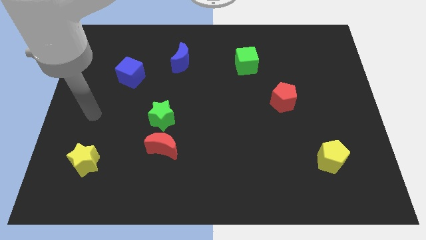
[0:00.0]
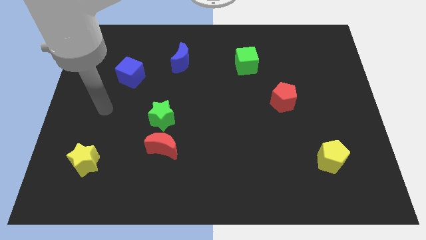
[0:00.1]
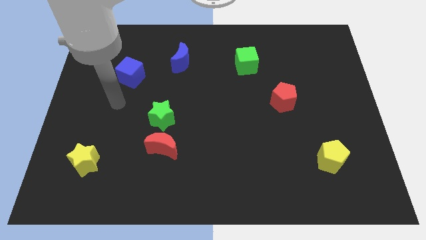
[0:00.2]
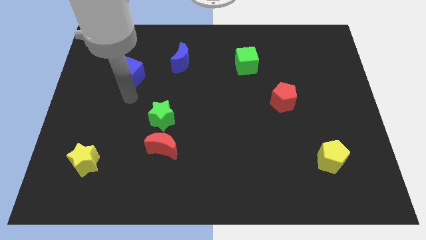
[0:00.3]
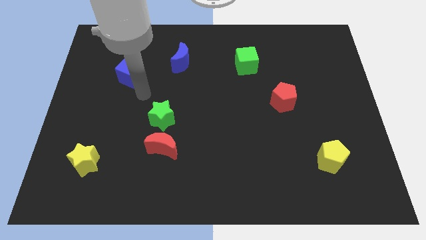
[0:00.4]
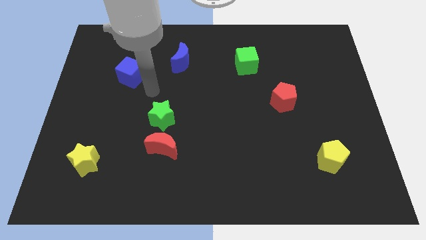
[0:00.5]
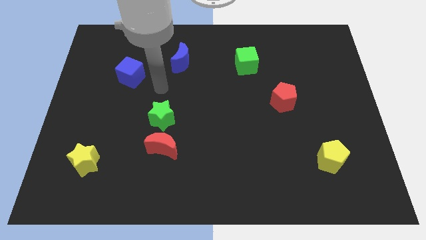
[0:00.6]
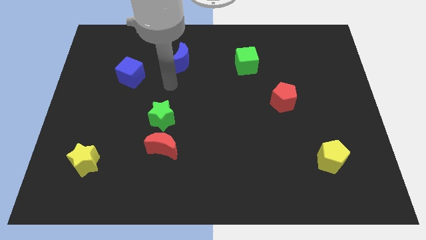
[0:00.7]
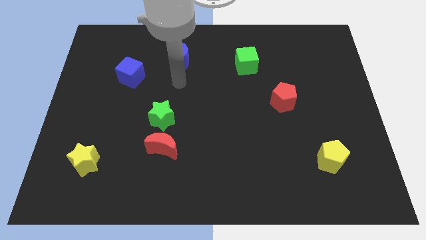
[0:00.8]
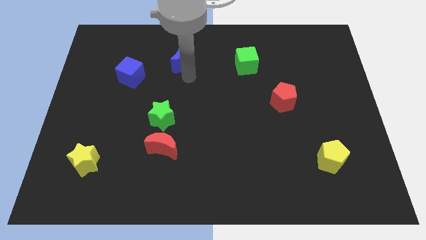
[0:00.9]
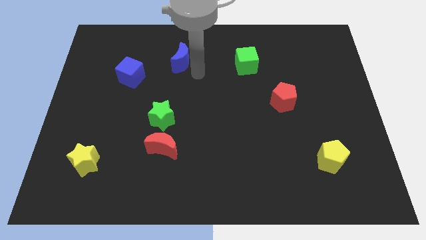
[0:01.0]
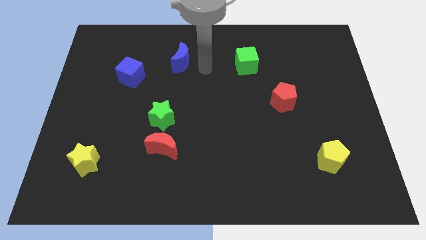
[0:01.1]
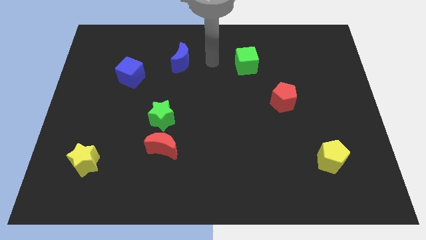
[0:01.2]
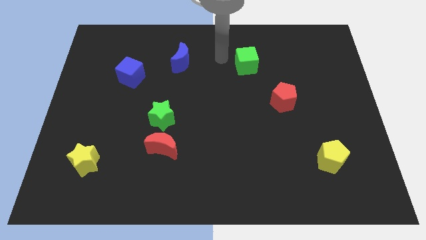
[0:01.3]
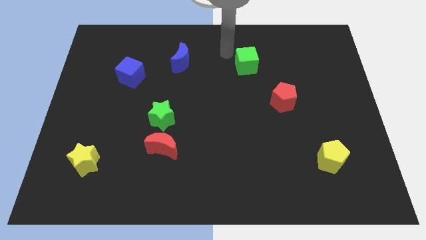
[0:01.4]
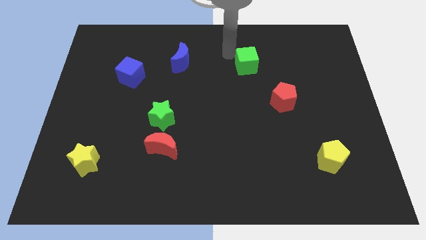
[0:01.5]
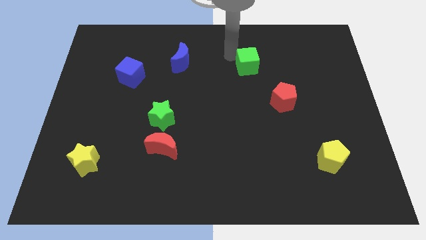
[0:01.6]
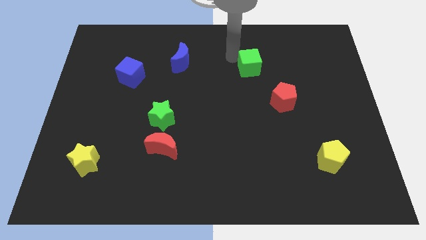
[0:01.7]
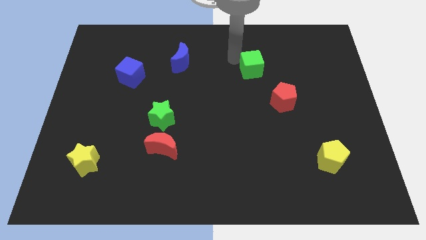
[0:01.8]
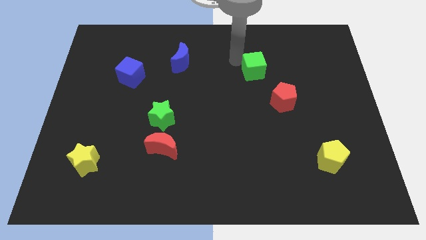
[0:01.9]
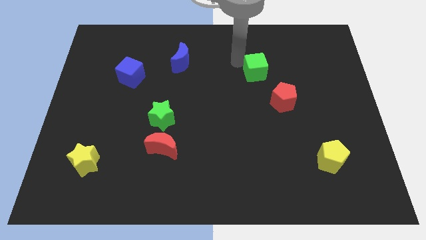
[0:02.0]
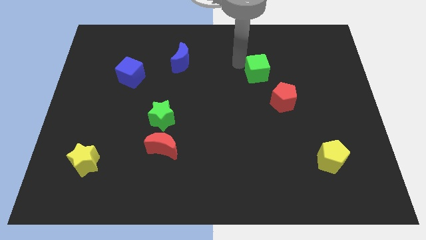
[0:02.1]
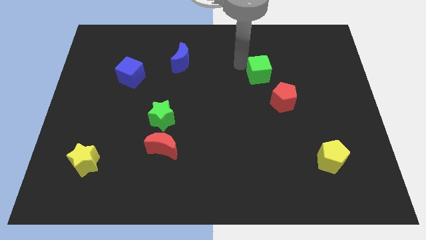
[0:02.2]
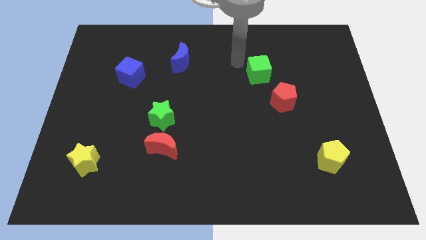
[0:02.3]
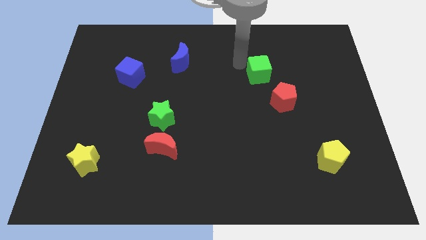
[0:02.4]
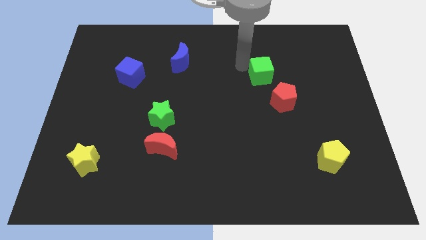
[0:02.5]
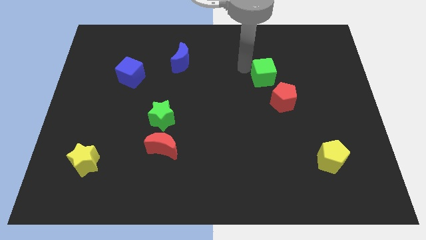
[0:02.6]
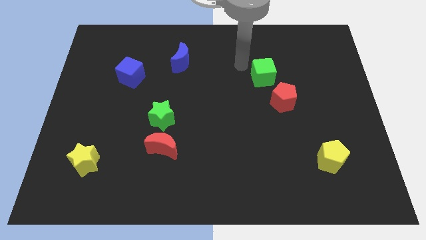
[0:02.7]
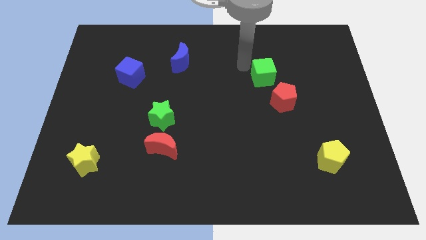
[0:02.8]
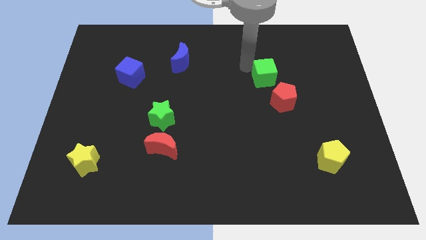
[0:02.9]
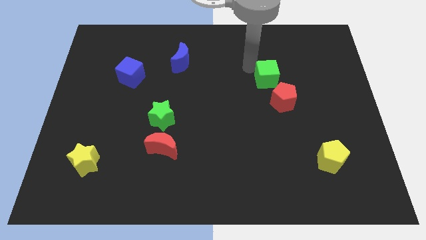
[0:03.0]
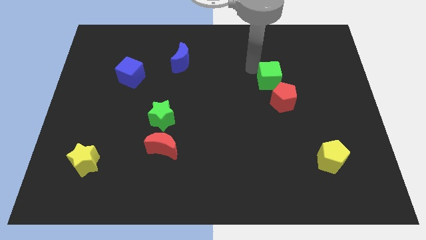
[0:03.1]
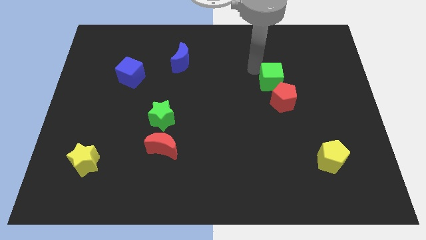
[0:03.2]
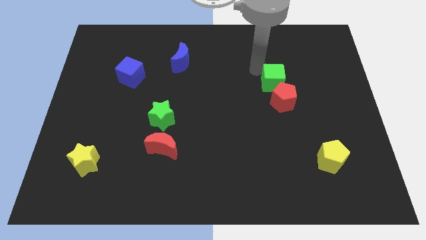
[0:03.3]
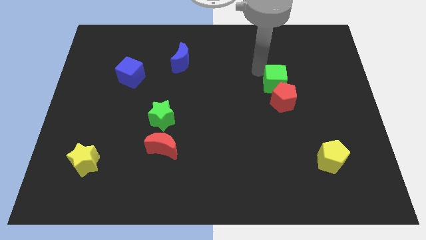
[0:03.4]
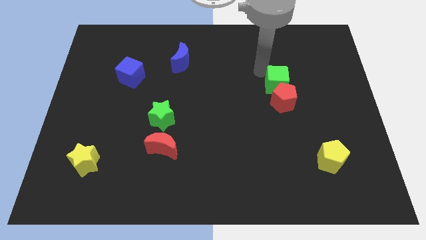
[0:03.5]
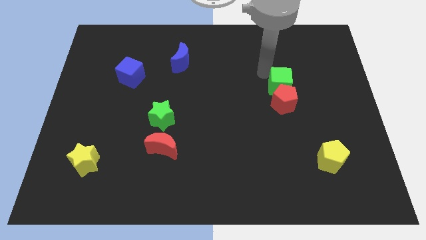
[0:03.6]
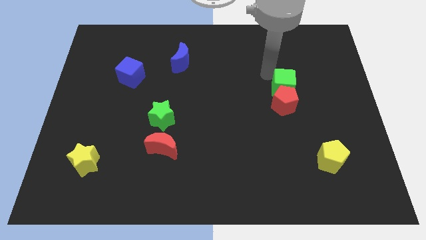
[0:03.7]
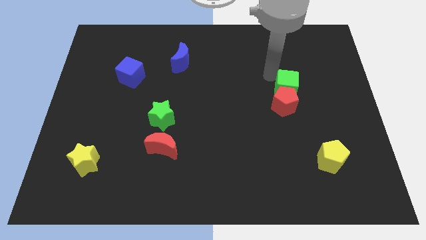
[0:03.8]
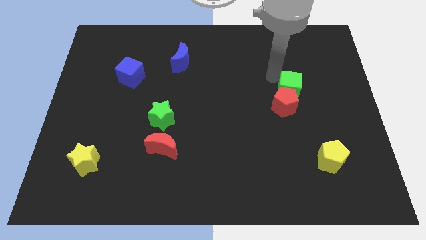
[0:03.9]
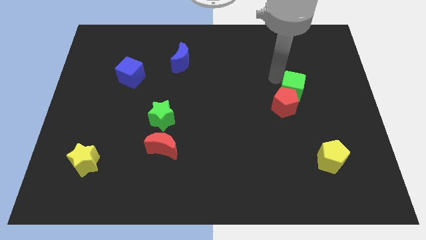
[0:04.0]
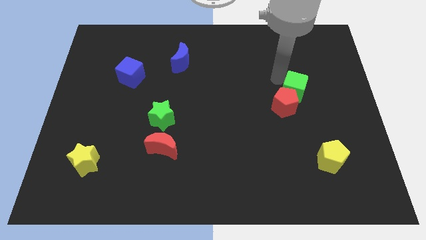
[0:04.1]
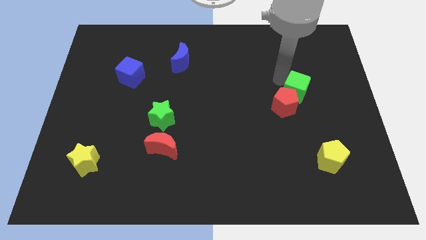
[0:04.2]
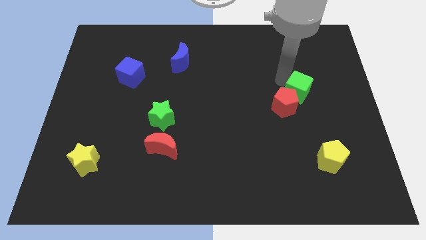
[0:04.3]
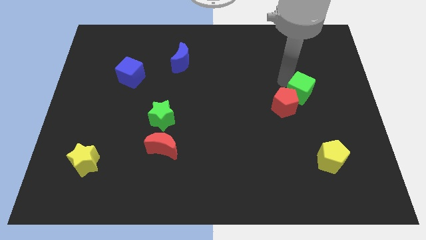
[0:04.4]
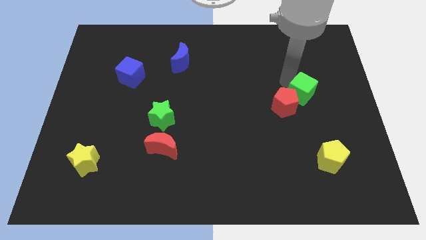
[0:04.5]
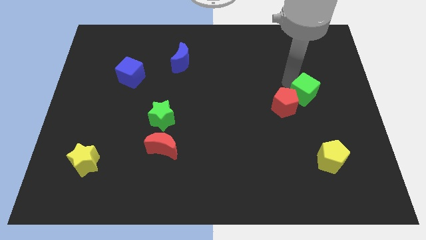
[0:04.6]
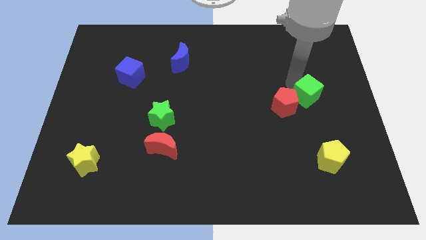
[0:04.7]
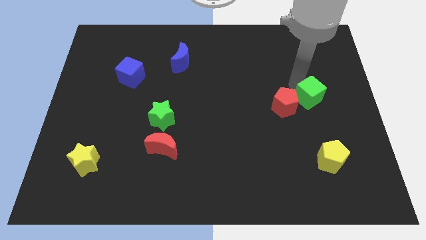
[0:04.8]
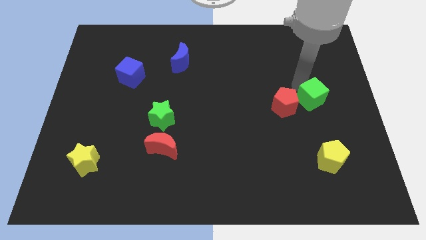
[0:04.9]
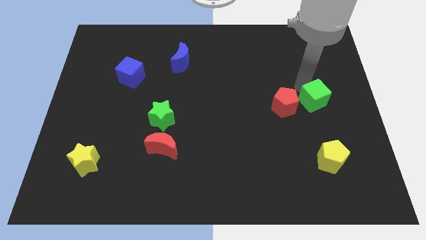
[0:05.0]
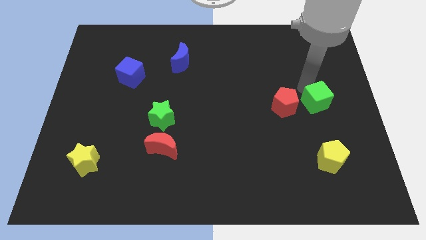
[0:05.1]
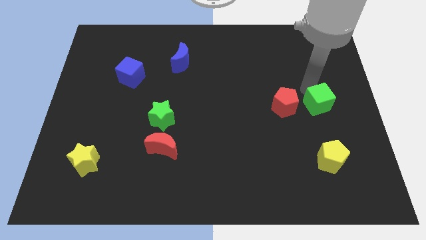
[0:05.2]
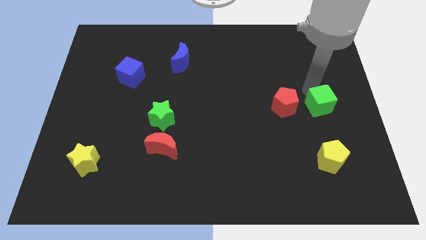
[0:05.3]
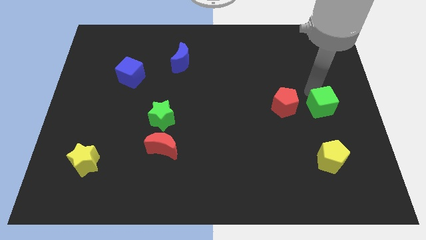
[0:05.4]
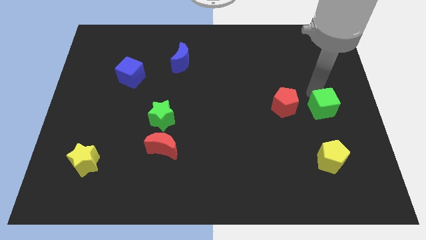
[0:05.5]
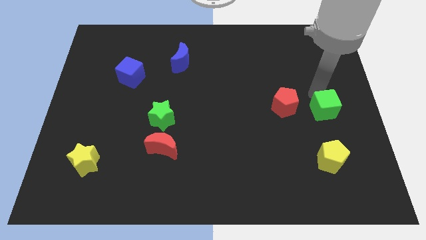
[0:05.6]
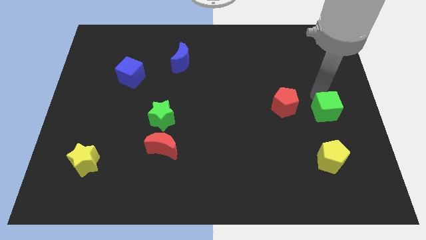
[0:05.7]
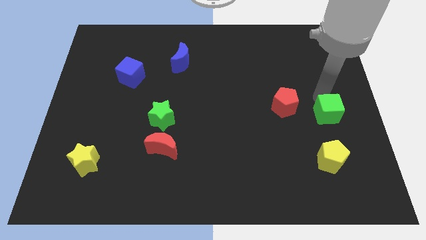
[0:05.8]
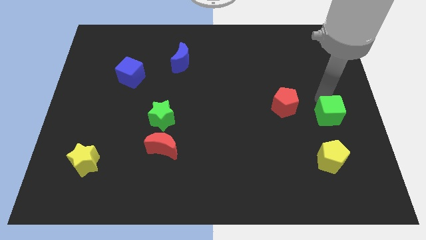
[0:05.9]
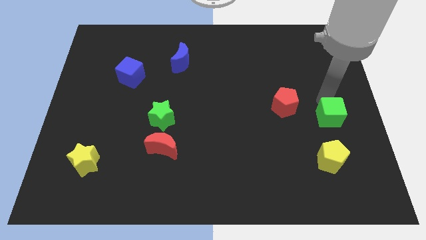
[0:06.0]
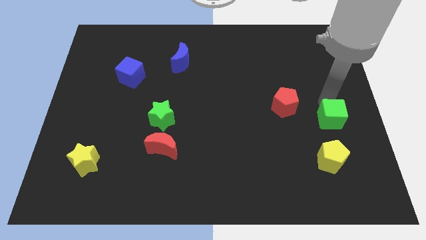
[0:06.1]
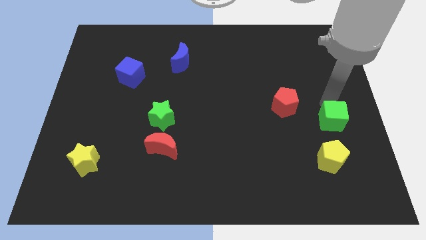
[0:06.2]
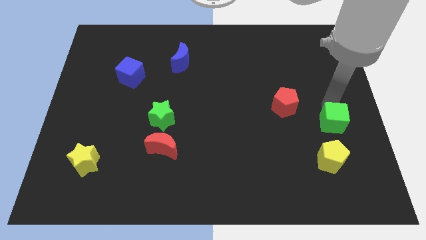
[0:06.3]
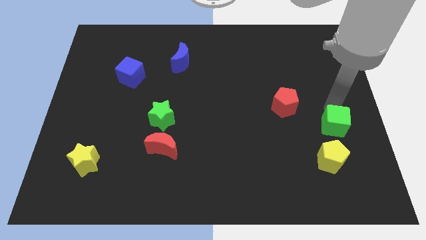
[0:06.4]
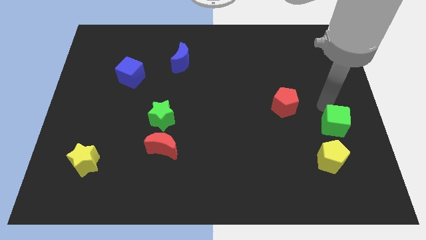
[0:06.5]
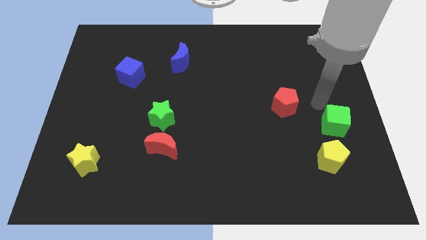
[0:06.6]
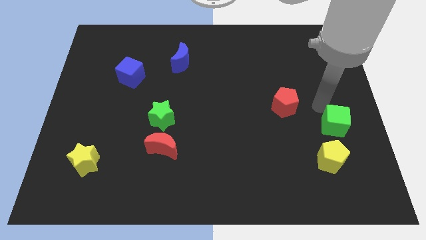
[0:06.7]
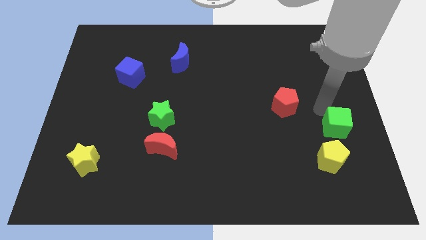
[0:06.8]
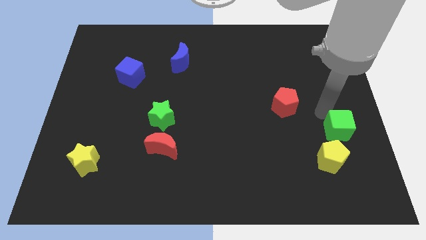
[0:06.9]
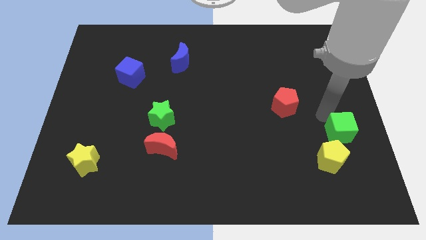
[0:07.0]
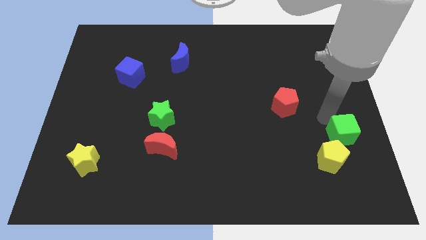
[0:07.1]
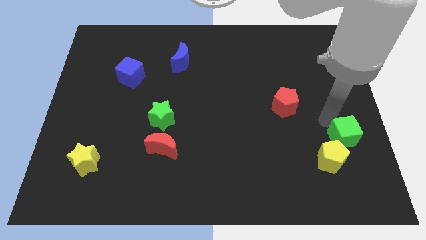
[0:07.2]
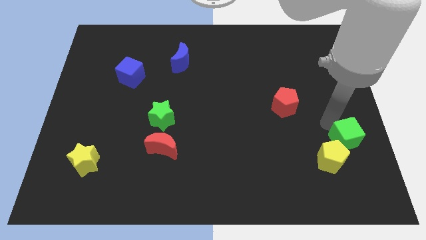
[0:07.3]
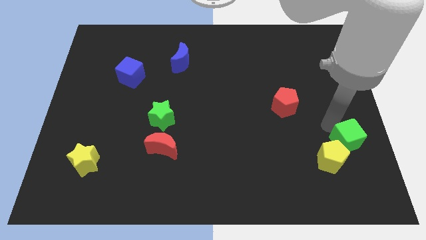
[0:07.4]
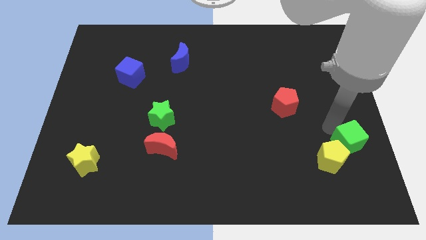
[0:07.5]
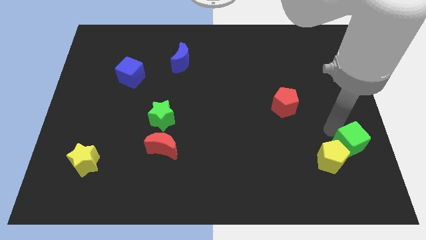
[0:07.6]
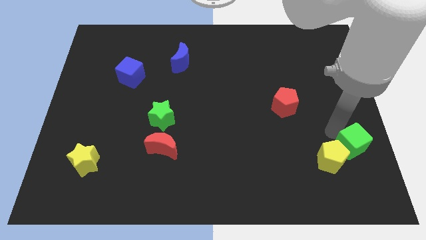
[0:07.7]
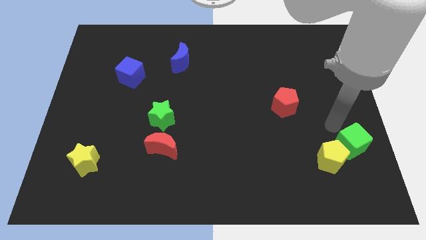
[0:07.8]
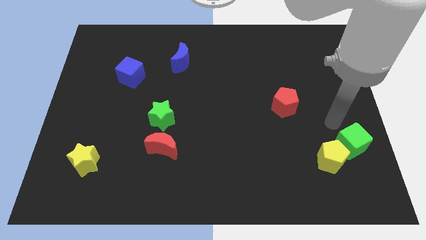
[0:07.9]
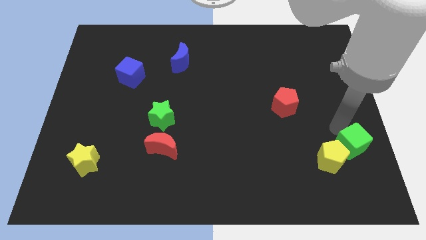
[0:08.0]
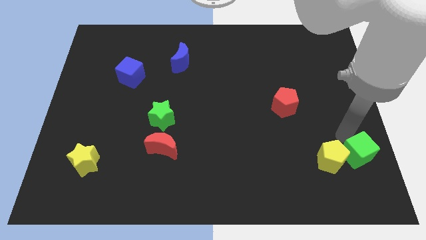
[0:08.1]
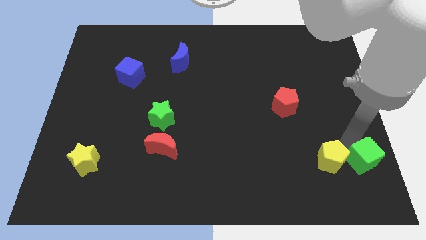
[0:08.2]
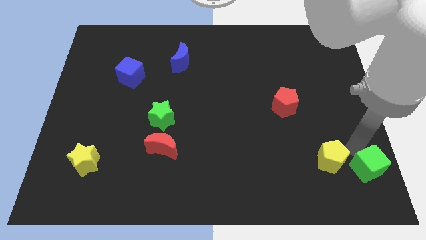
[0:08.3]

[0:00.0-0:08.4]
move the green cube to the lower right corner
